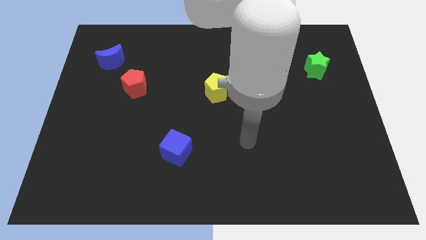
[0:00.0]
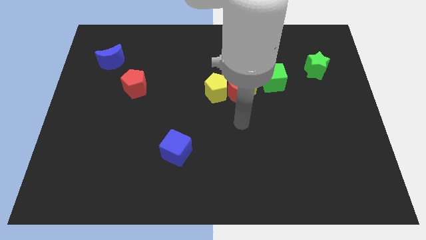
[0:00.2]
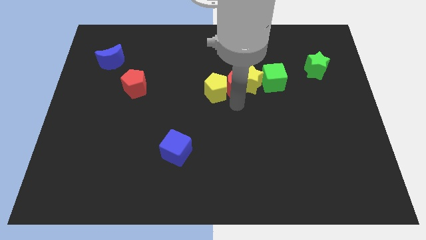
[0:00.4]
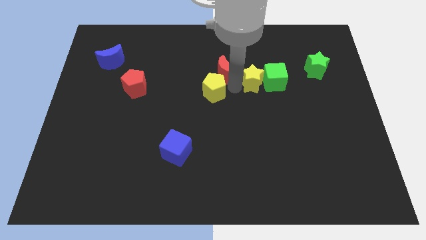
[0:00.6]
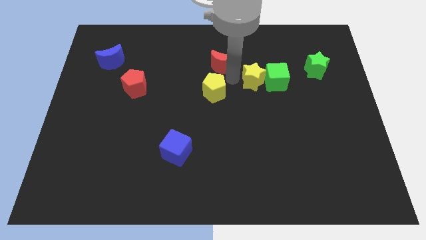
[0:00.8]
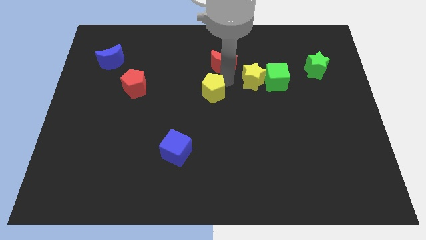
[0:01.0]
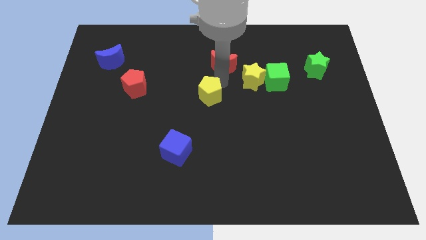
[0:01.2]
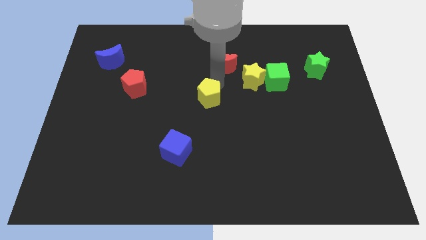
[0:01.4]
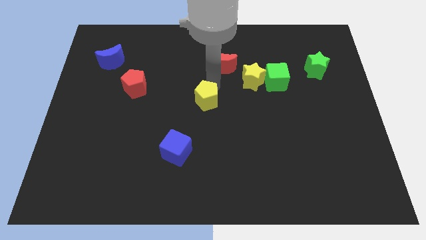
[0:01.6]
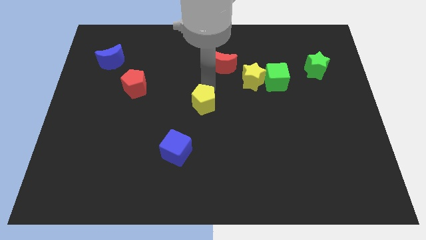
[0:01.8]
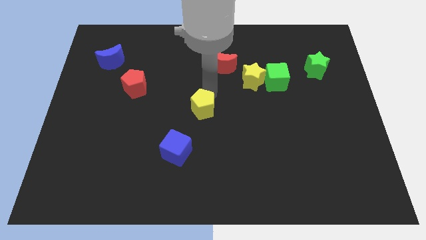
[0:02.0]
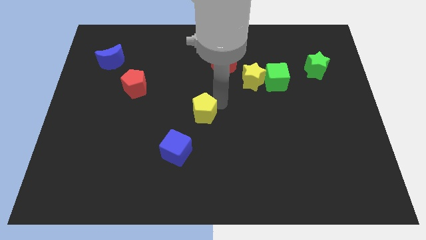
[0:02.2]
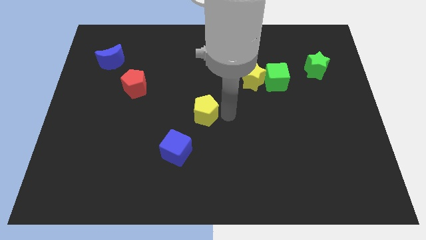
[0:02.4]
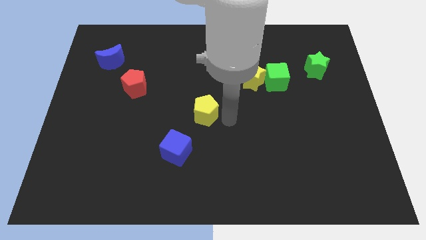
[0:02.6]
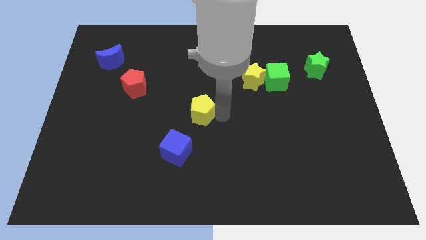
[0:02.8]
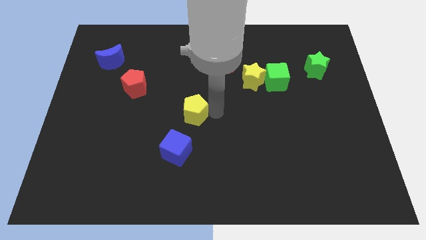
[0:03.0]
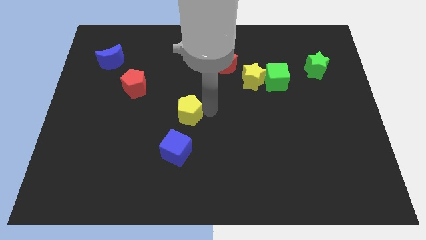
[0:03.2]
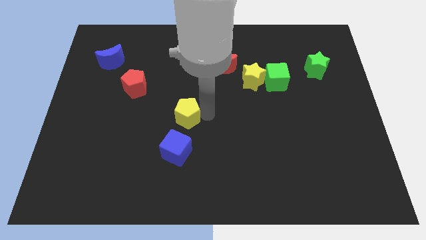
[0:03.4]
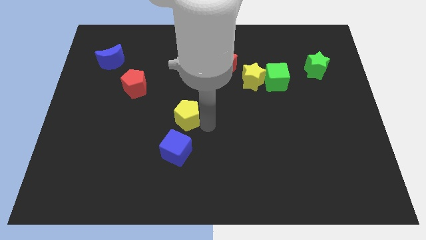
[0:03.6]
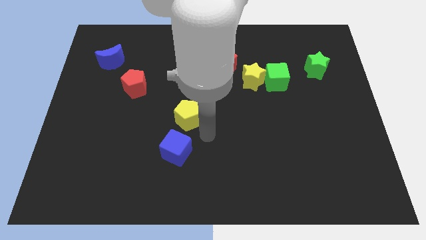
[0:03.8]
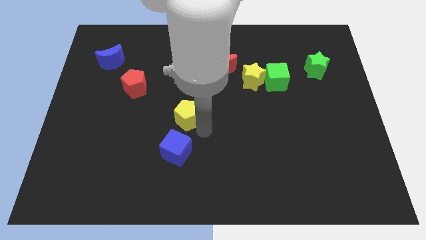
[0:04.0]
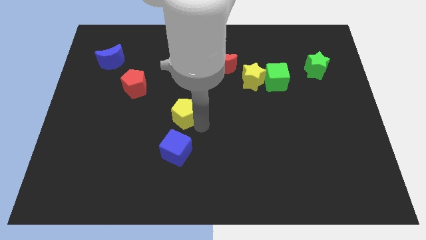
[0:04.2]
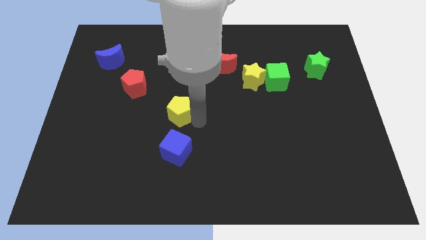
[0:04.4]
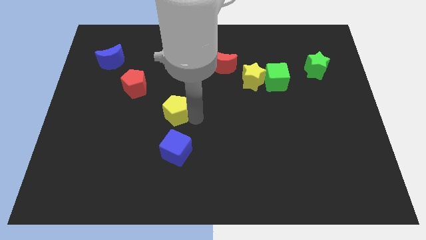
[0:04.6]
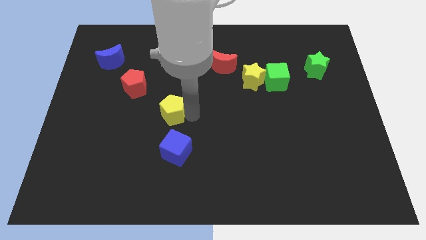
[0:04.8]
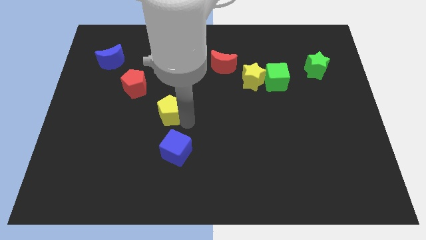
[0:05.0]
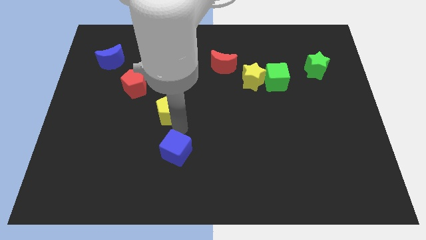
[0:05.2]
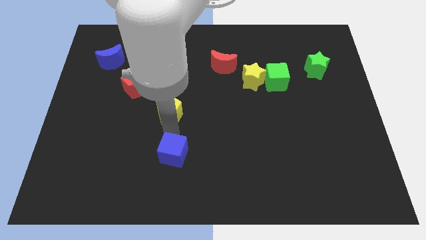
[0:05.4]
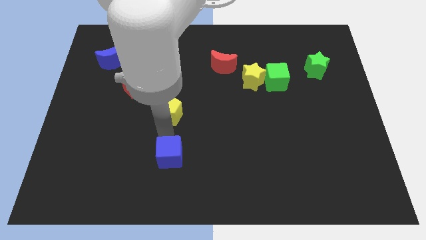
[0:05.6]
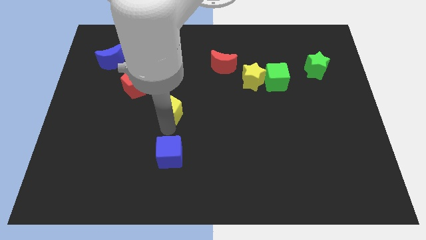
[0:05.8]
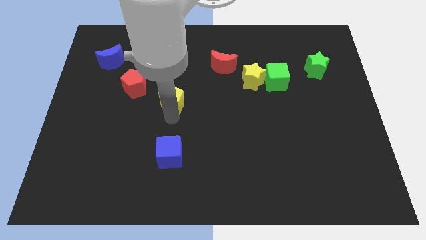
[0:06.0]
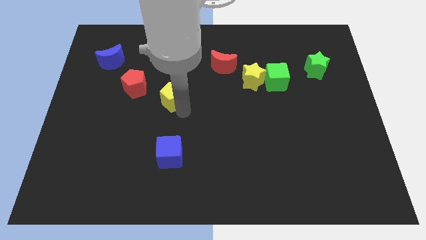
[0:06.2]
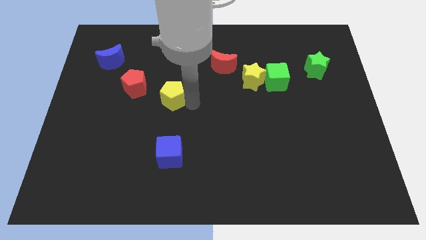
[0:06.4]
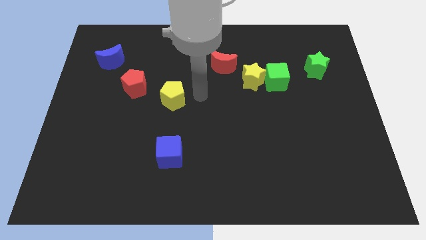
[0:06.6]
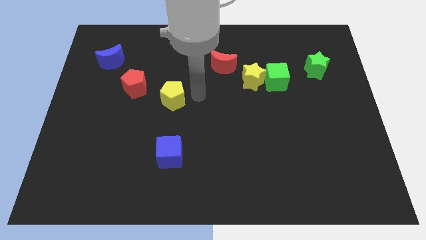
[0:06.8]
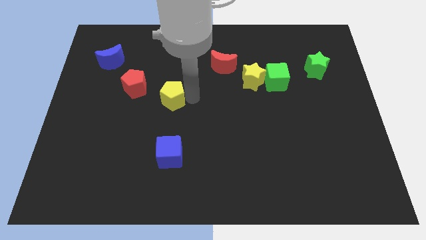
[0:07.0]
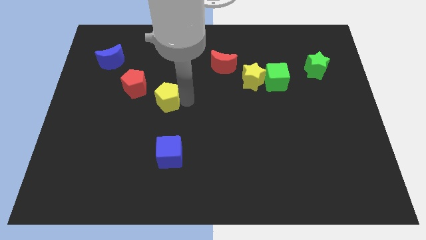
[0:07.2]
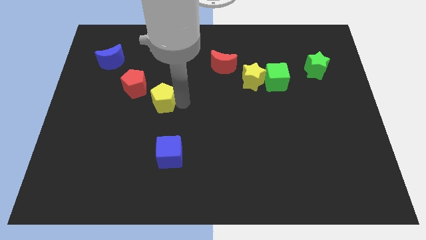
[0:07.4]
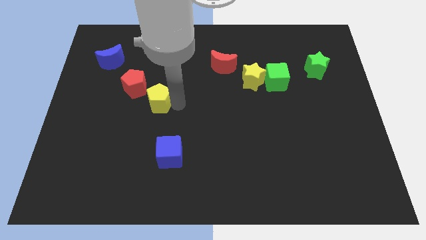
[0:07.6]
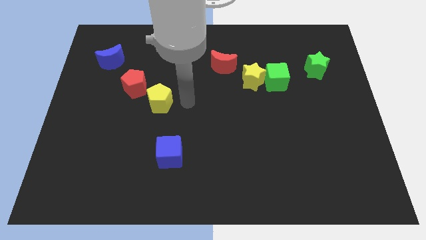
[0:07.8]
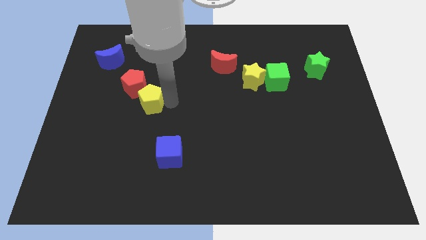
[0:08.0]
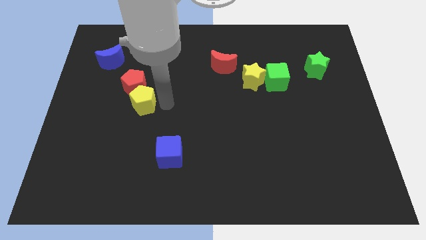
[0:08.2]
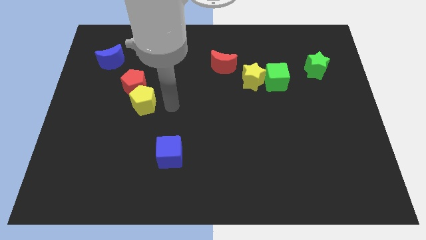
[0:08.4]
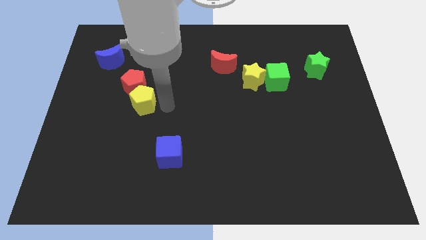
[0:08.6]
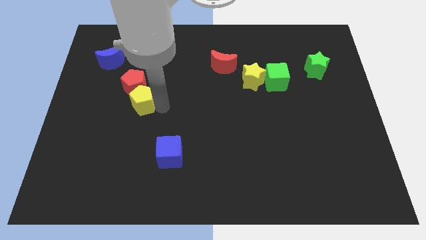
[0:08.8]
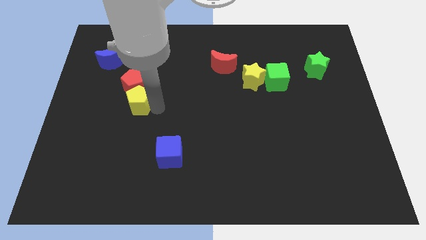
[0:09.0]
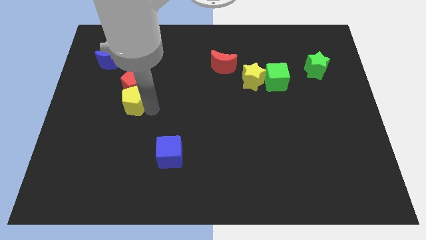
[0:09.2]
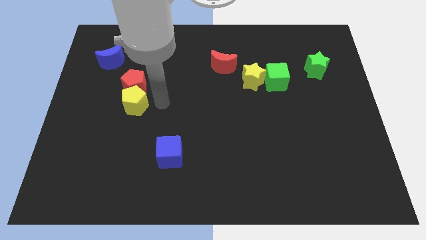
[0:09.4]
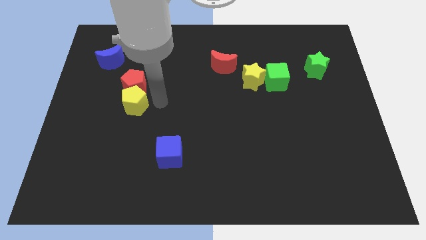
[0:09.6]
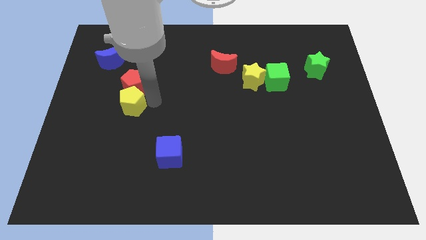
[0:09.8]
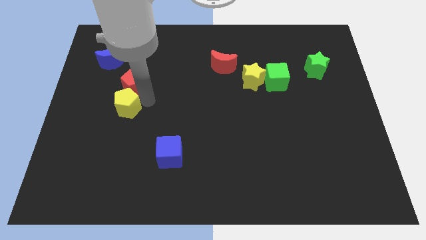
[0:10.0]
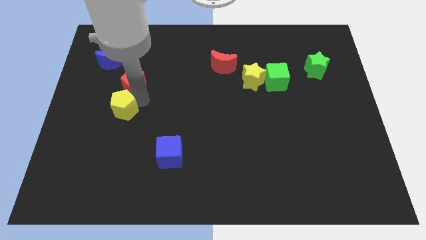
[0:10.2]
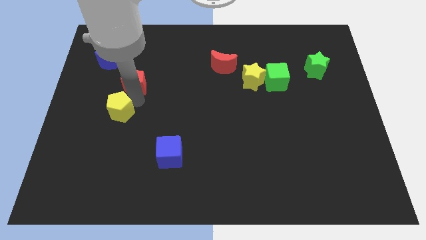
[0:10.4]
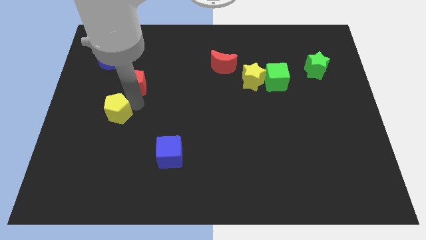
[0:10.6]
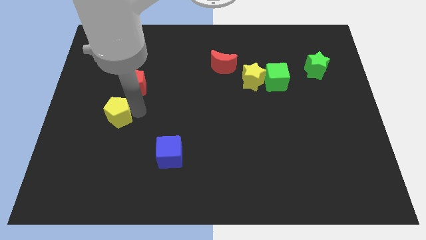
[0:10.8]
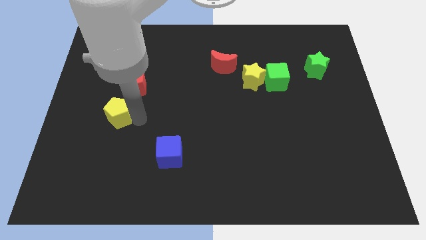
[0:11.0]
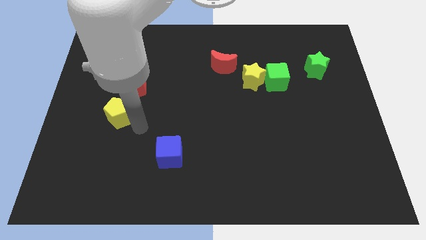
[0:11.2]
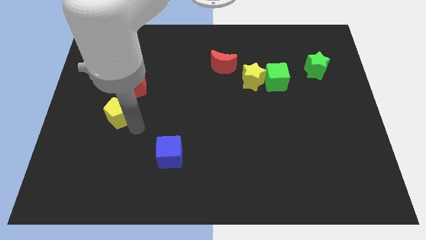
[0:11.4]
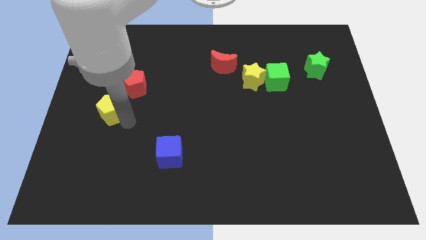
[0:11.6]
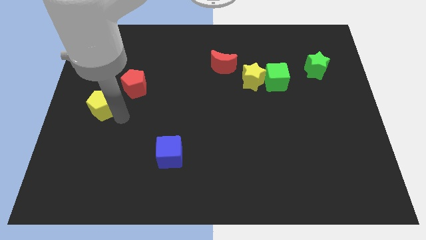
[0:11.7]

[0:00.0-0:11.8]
slide the yellow pentagon to the left side of the board

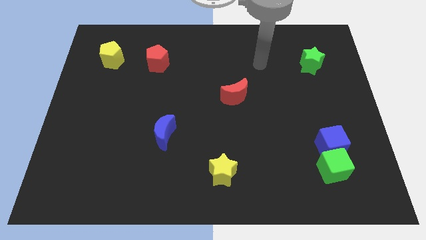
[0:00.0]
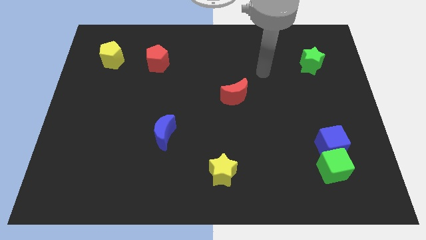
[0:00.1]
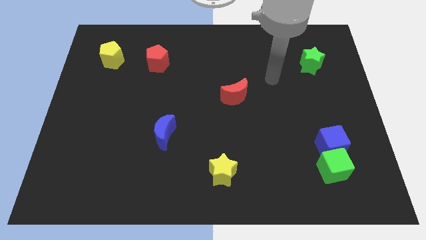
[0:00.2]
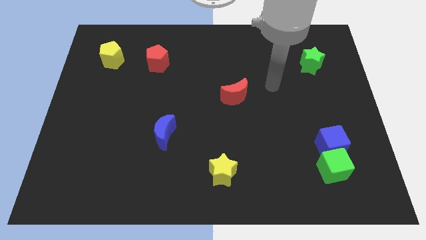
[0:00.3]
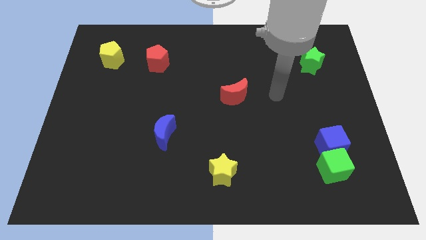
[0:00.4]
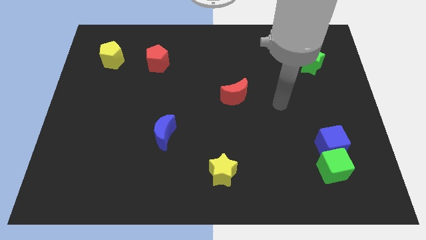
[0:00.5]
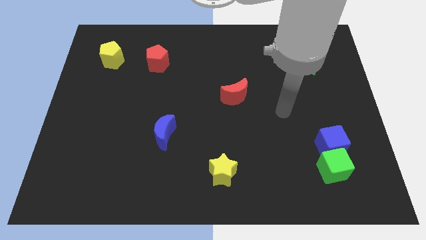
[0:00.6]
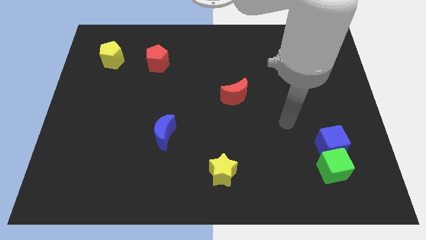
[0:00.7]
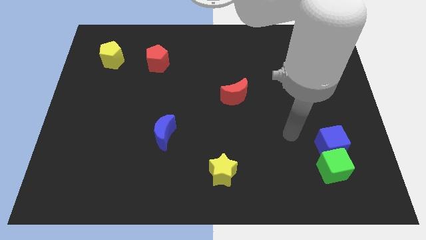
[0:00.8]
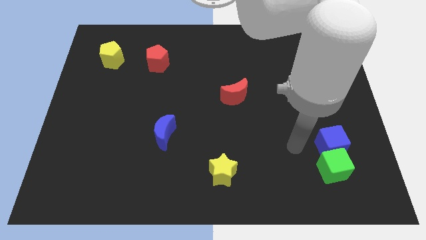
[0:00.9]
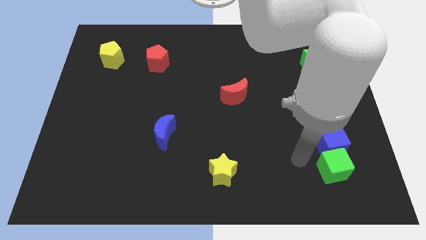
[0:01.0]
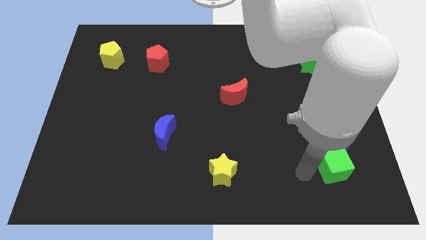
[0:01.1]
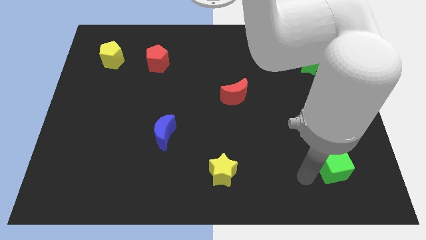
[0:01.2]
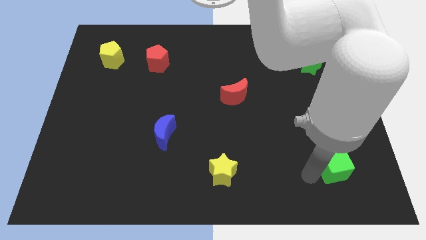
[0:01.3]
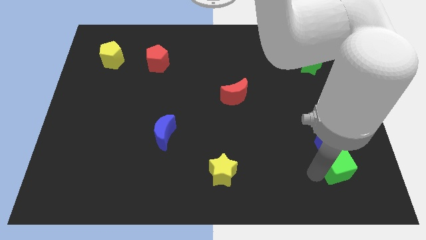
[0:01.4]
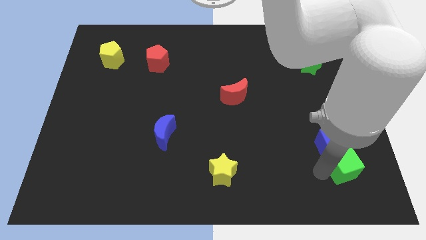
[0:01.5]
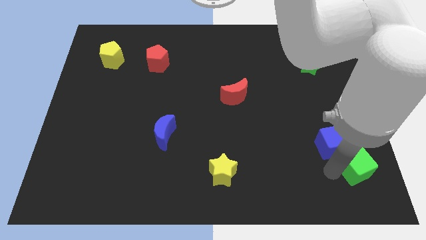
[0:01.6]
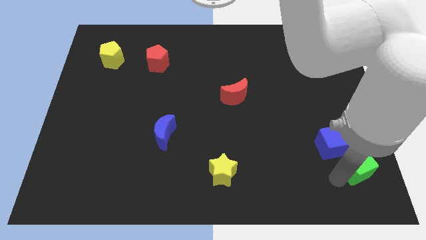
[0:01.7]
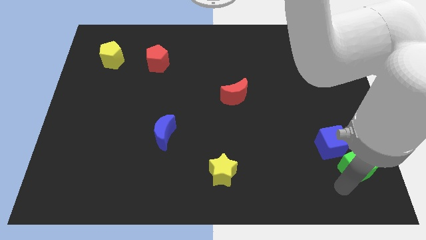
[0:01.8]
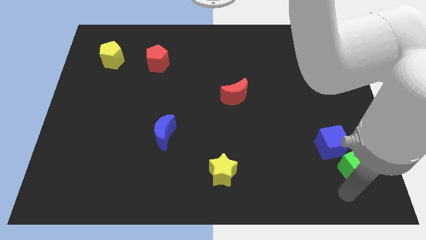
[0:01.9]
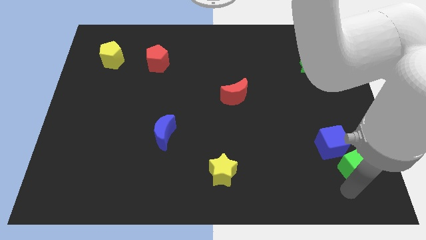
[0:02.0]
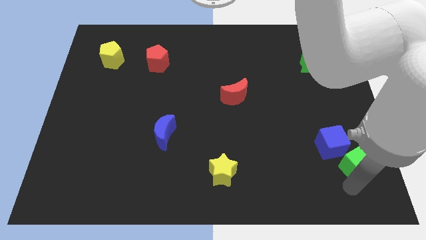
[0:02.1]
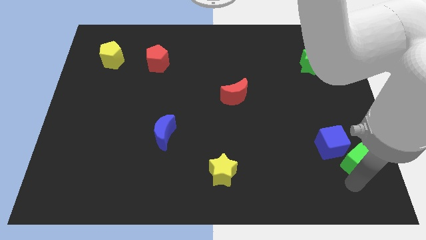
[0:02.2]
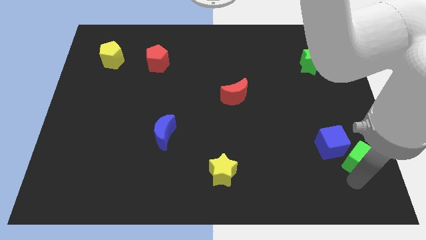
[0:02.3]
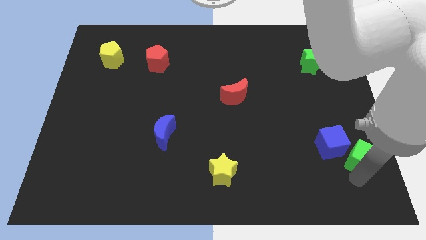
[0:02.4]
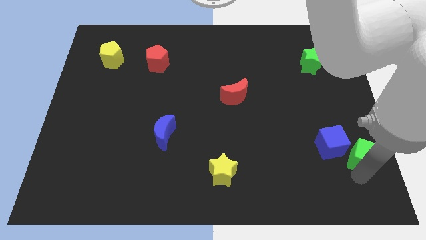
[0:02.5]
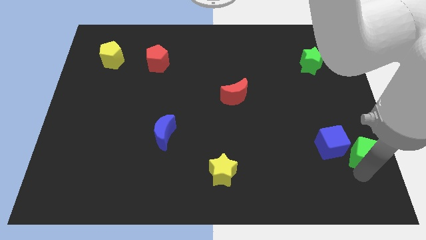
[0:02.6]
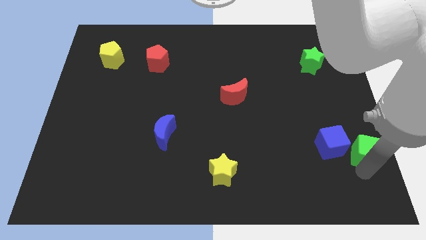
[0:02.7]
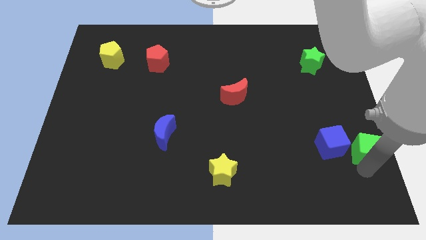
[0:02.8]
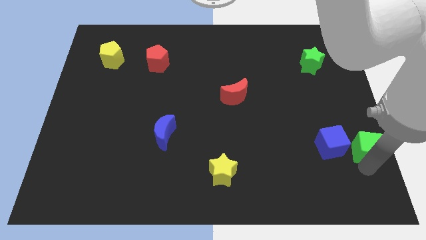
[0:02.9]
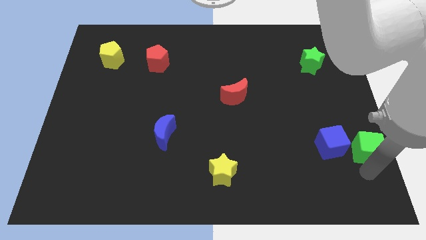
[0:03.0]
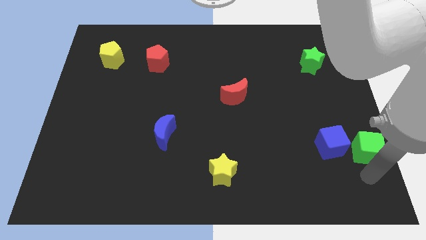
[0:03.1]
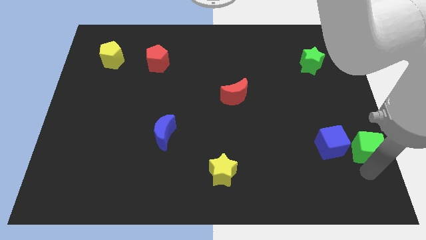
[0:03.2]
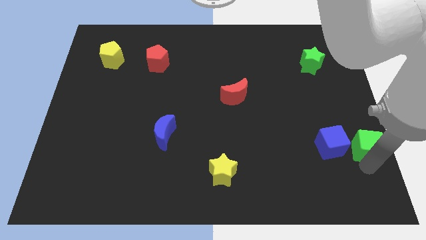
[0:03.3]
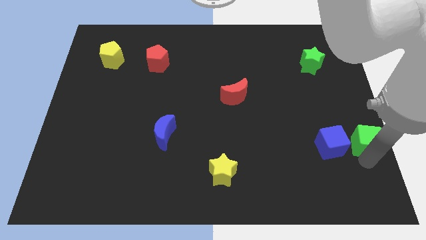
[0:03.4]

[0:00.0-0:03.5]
move the green cube to the center right
